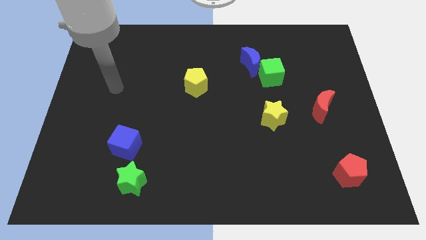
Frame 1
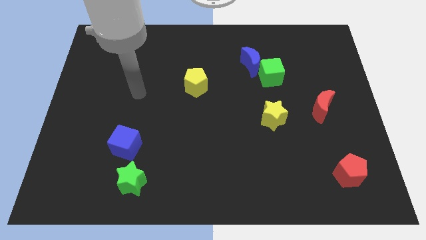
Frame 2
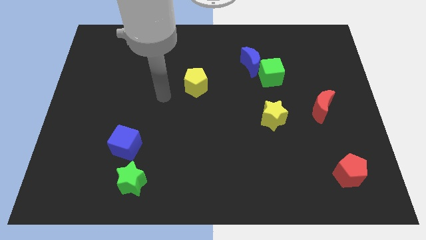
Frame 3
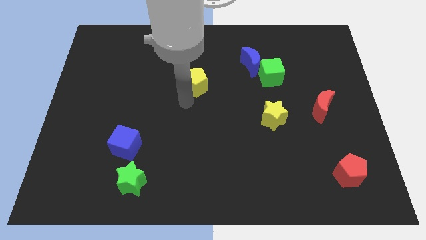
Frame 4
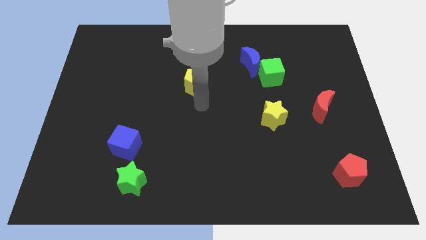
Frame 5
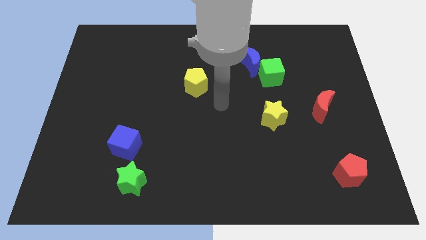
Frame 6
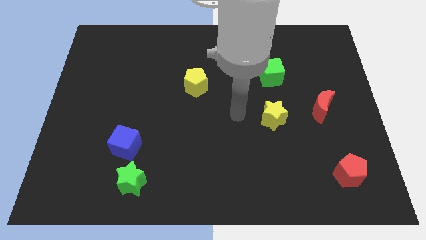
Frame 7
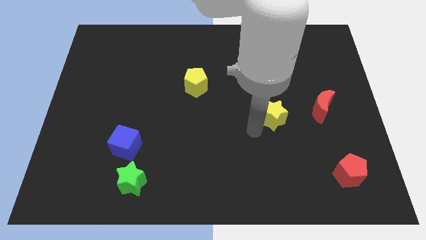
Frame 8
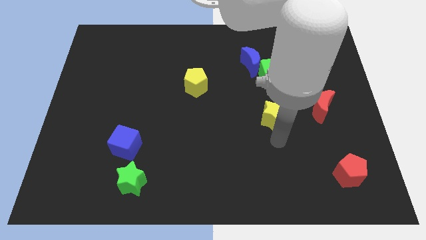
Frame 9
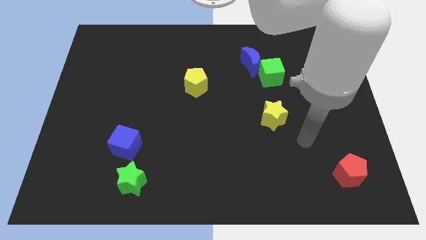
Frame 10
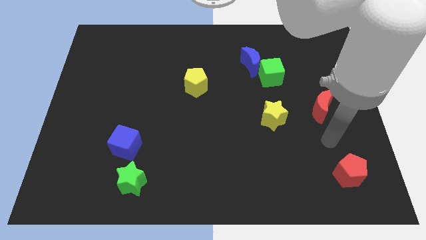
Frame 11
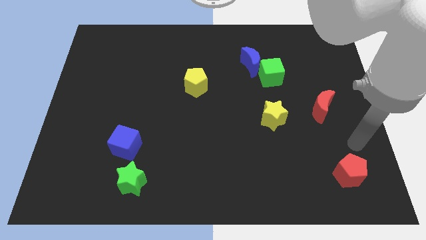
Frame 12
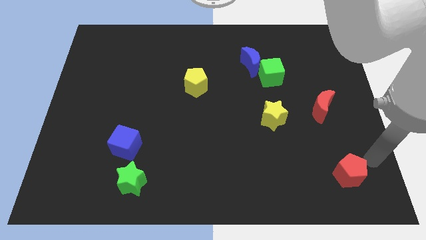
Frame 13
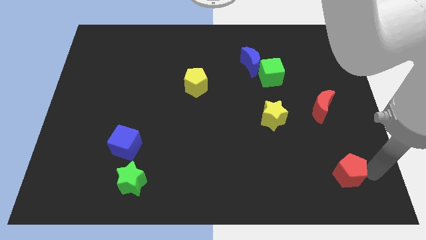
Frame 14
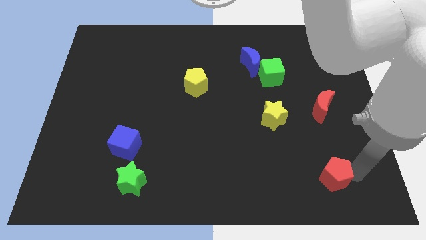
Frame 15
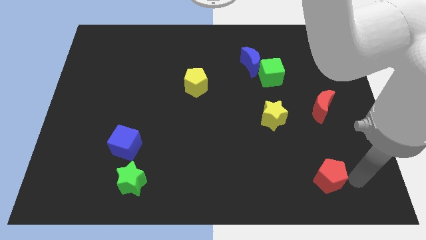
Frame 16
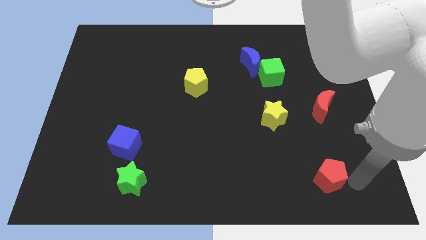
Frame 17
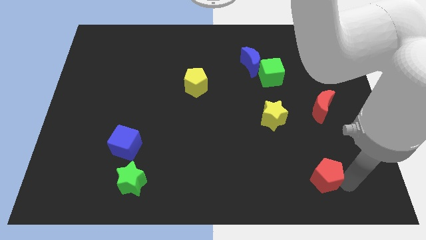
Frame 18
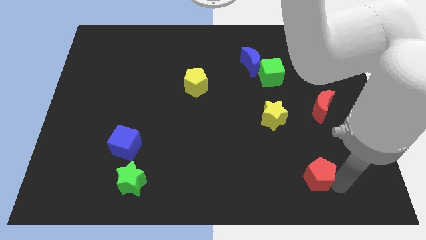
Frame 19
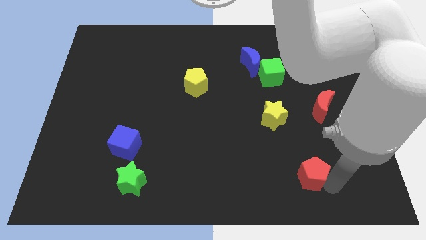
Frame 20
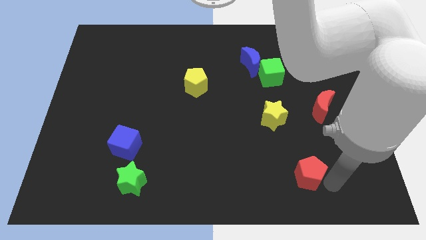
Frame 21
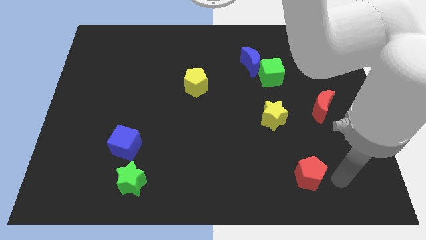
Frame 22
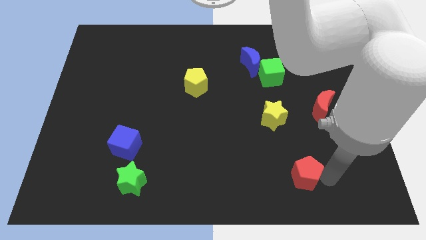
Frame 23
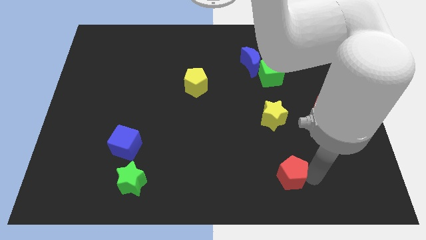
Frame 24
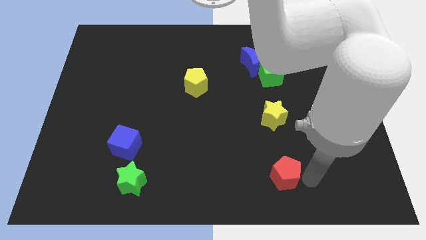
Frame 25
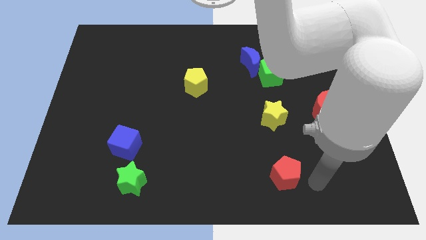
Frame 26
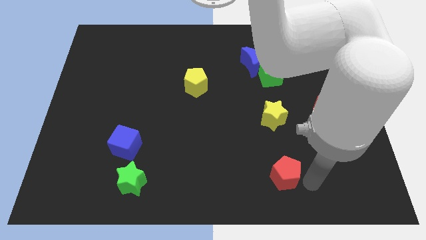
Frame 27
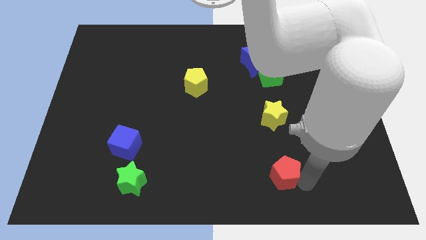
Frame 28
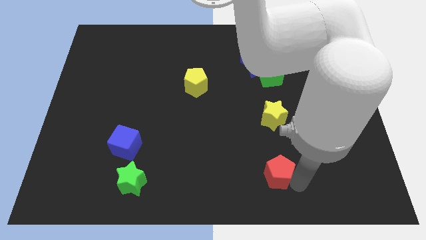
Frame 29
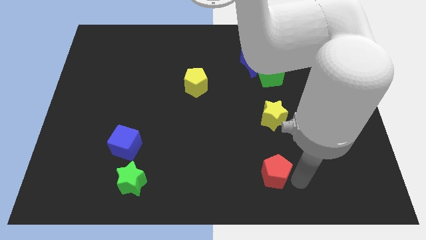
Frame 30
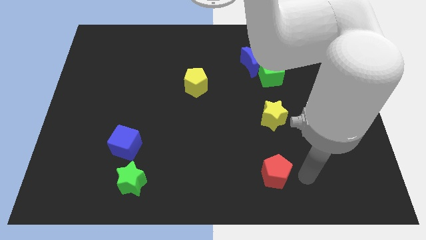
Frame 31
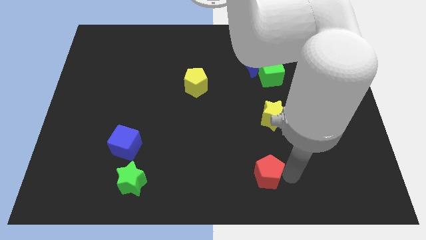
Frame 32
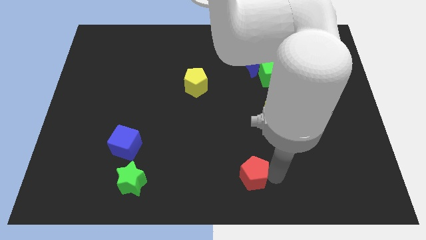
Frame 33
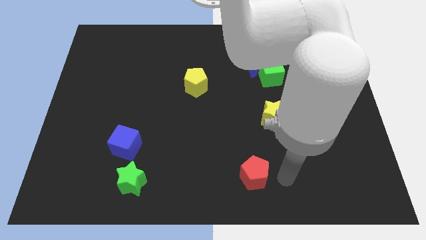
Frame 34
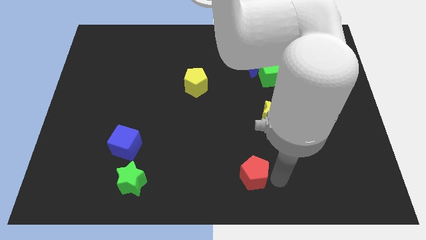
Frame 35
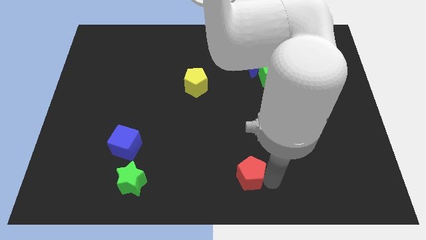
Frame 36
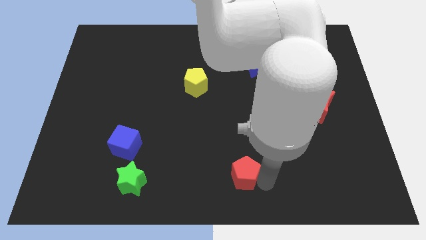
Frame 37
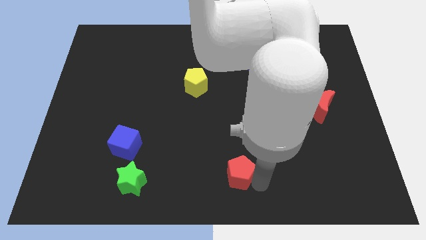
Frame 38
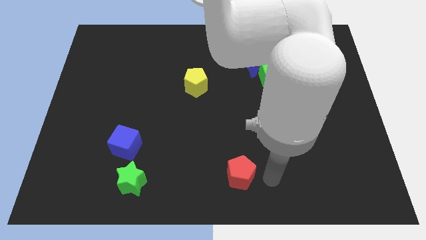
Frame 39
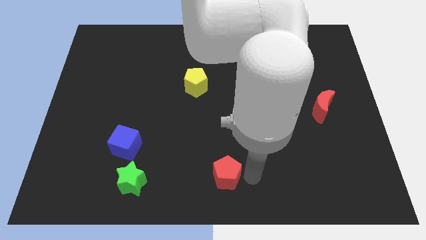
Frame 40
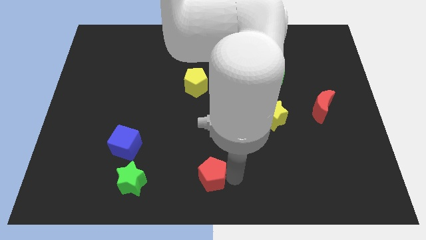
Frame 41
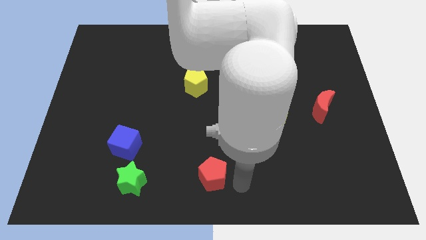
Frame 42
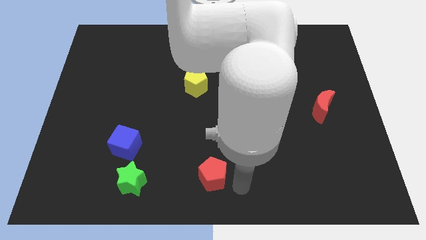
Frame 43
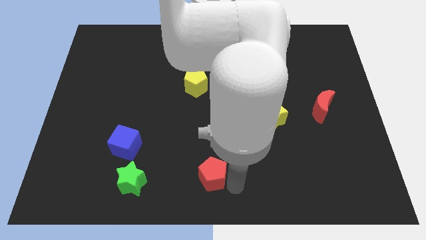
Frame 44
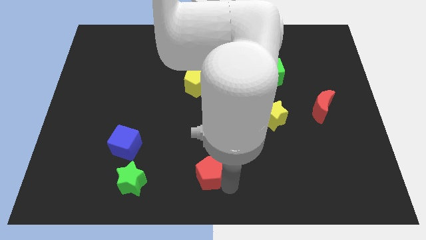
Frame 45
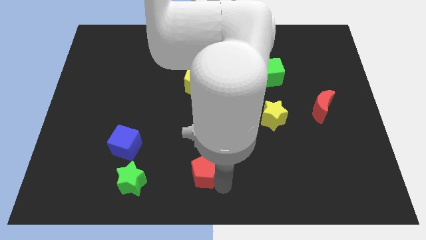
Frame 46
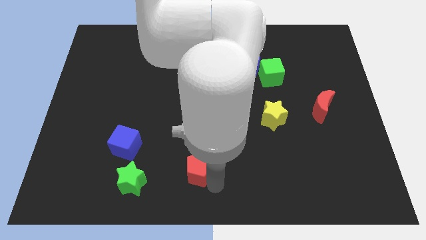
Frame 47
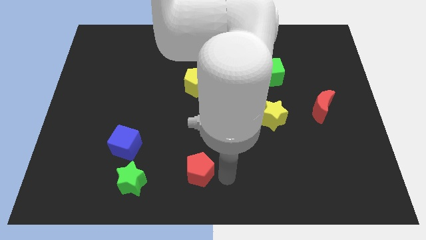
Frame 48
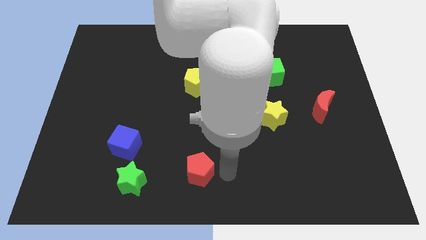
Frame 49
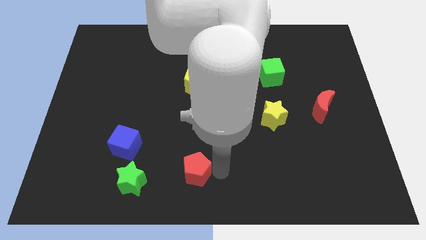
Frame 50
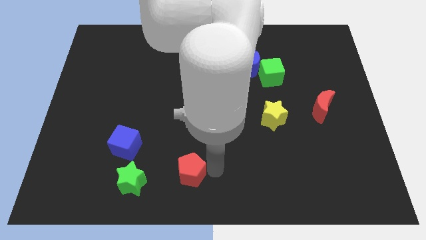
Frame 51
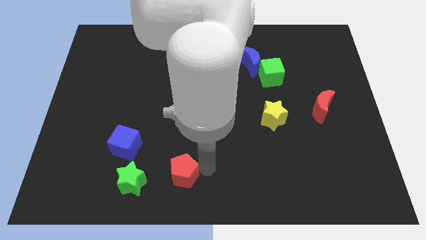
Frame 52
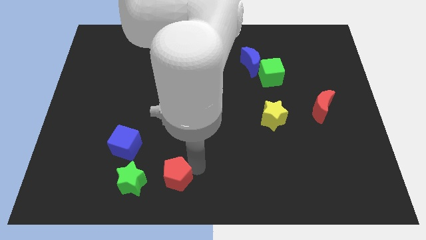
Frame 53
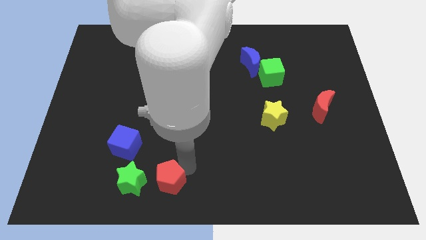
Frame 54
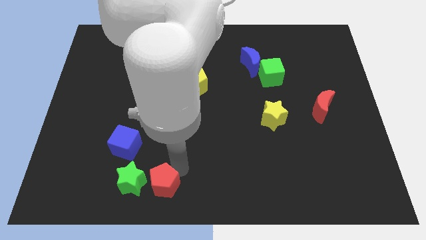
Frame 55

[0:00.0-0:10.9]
move the red pentagon to the green star

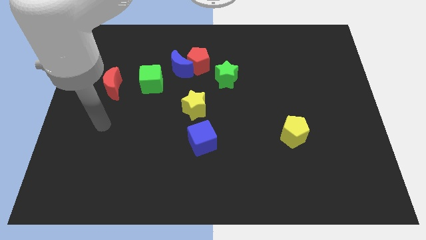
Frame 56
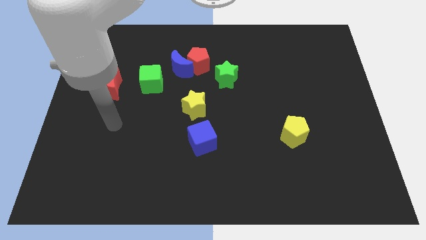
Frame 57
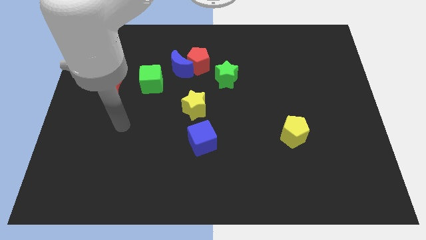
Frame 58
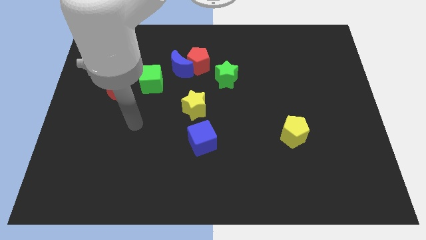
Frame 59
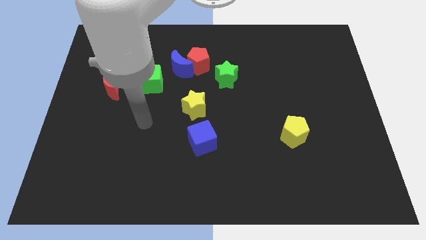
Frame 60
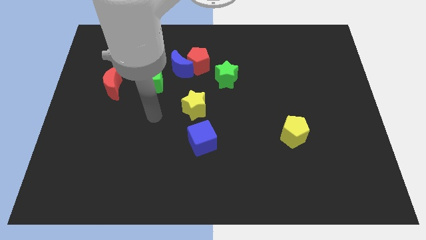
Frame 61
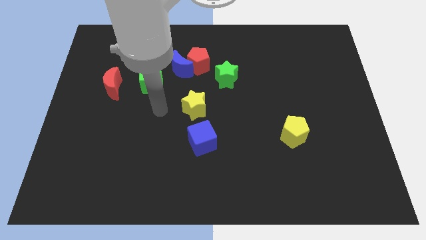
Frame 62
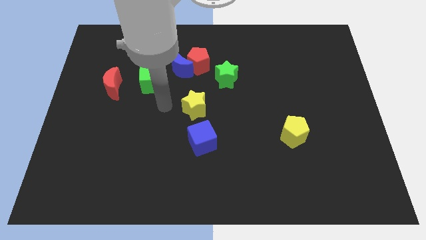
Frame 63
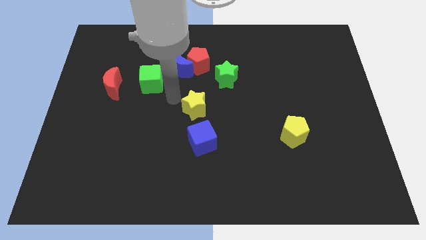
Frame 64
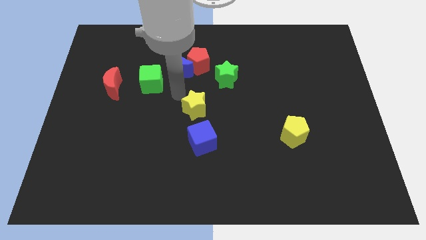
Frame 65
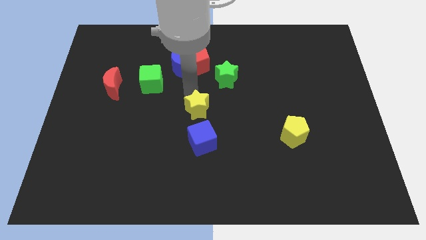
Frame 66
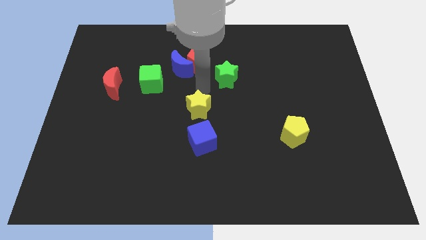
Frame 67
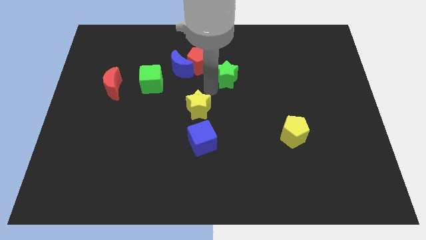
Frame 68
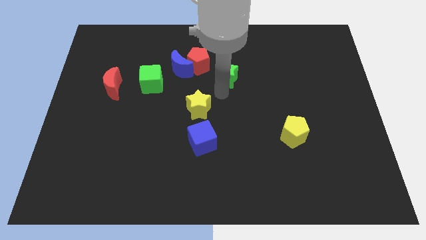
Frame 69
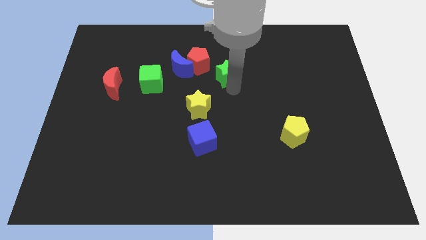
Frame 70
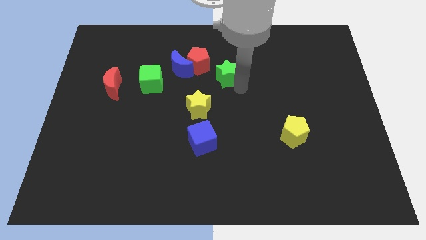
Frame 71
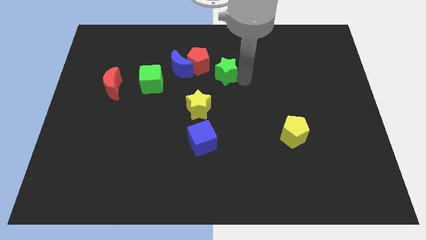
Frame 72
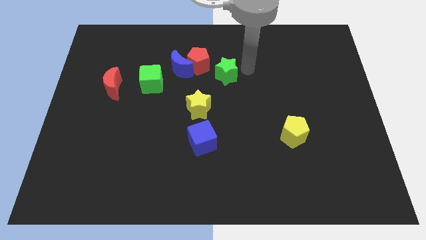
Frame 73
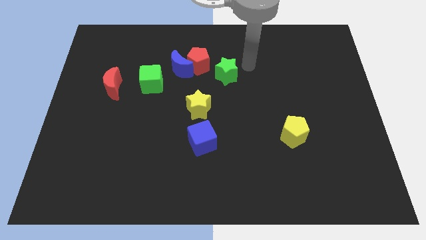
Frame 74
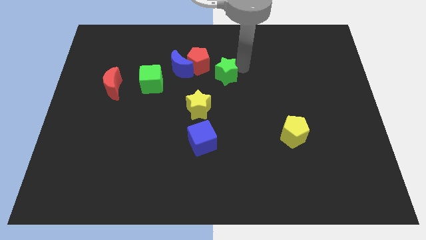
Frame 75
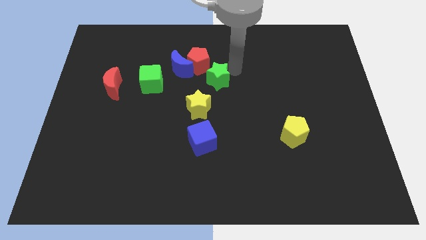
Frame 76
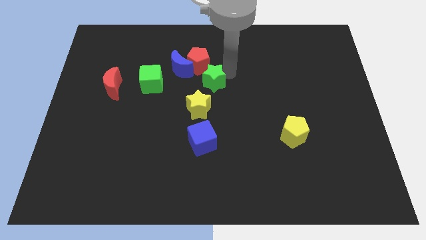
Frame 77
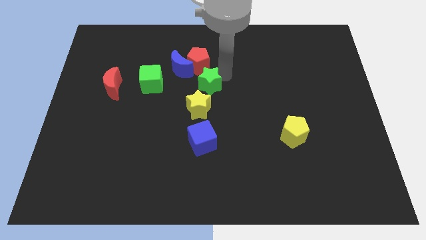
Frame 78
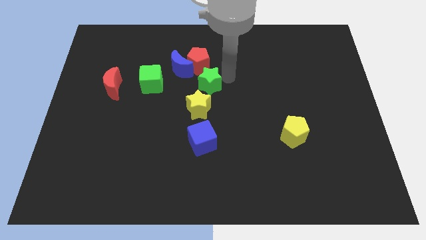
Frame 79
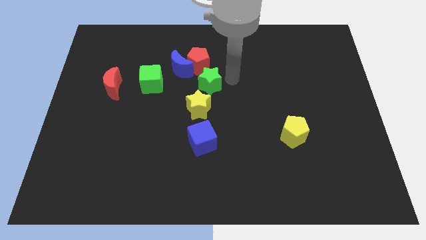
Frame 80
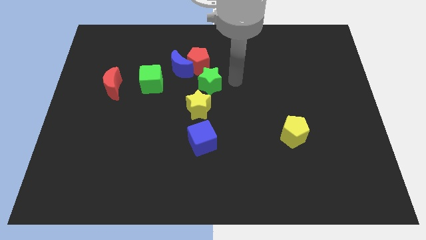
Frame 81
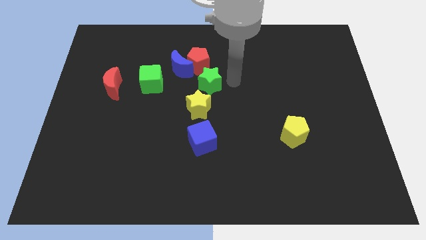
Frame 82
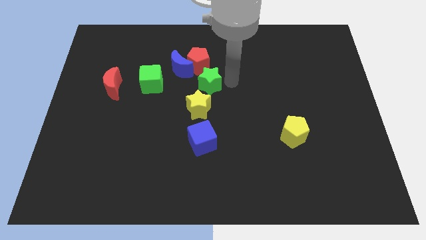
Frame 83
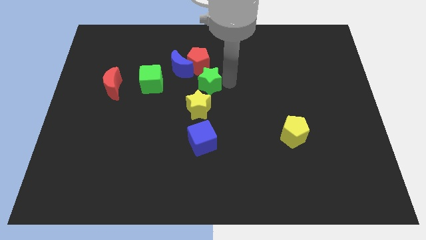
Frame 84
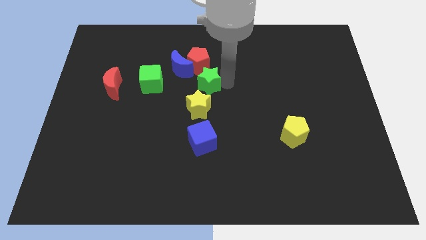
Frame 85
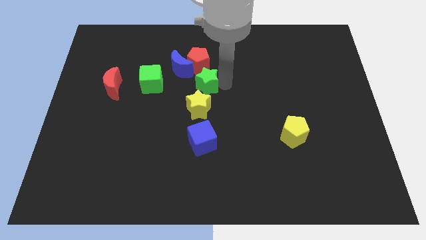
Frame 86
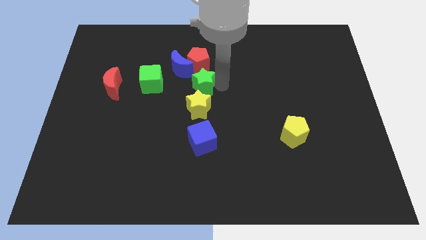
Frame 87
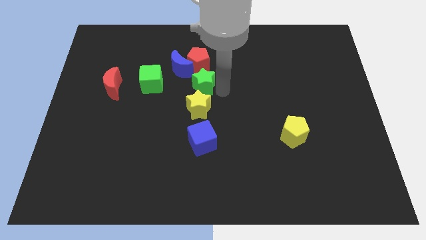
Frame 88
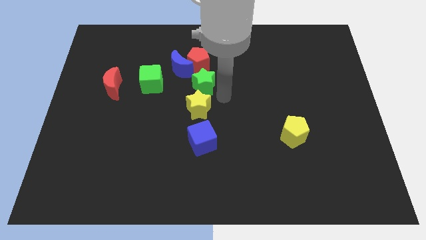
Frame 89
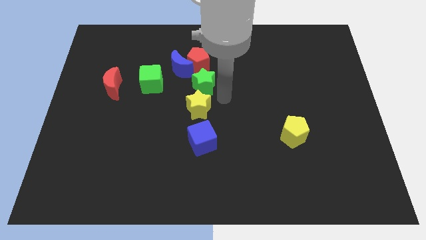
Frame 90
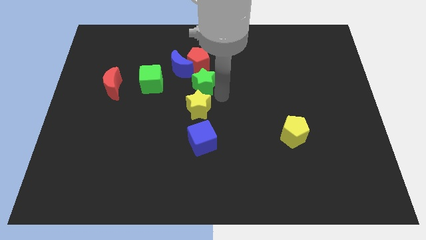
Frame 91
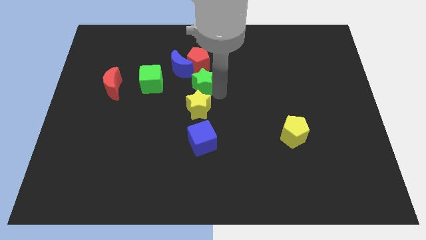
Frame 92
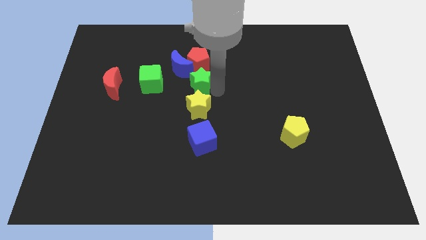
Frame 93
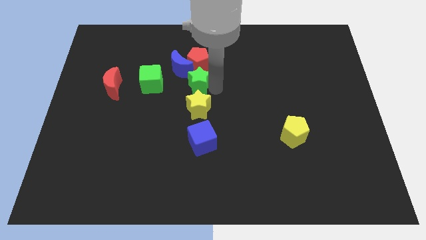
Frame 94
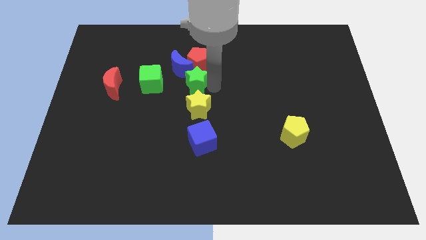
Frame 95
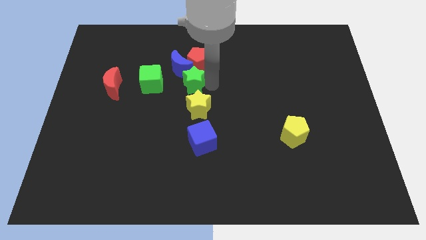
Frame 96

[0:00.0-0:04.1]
slide the green star close to the blue moon
